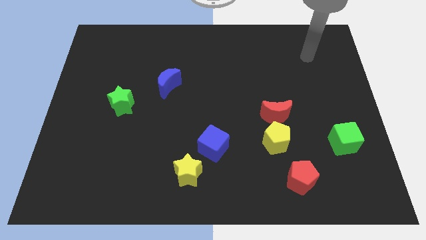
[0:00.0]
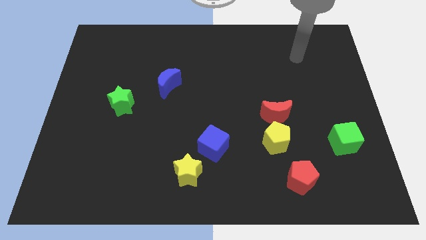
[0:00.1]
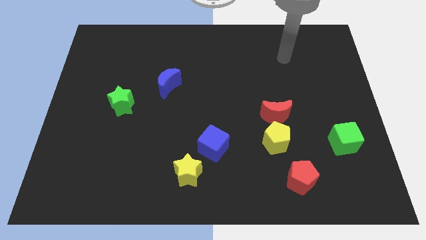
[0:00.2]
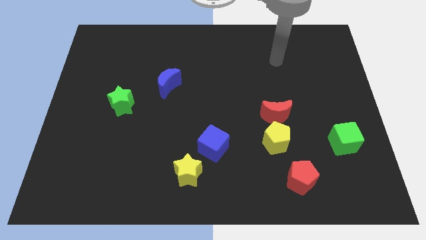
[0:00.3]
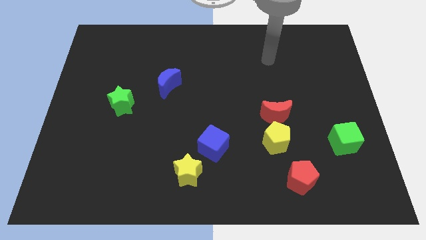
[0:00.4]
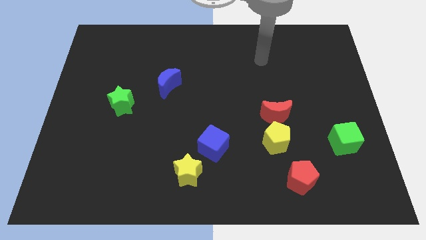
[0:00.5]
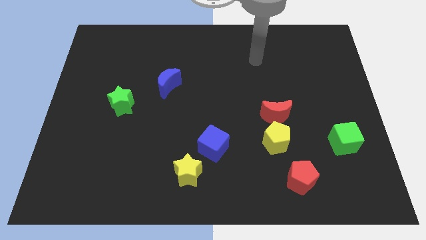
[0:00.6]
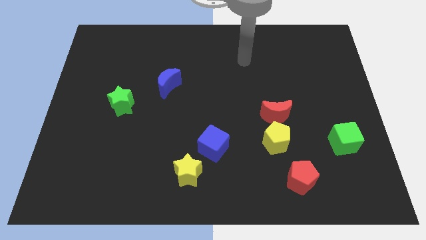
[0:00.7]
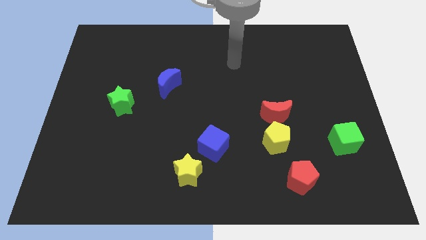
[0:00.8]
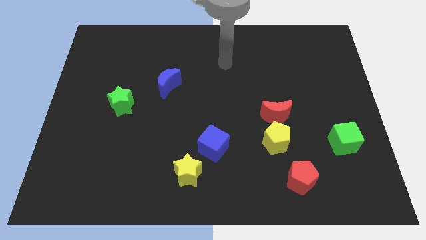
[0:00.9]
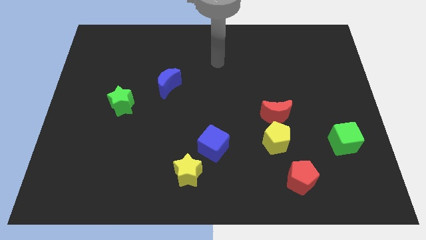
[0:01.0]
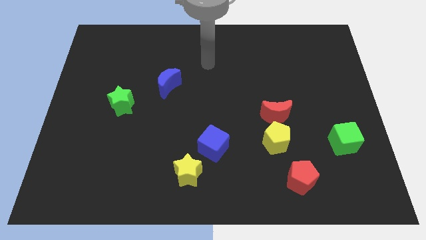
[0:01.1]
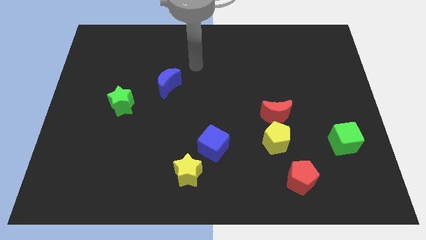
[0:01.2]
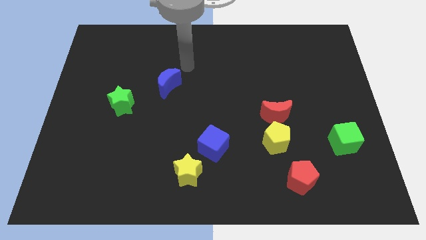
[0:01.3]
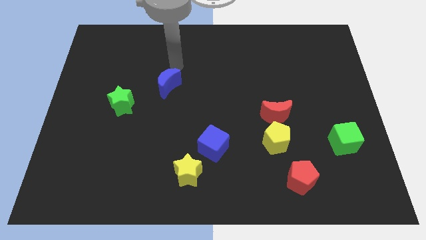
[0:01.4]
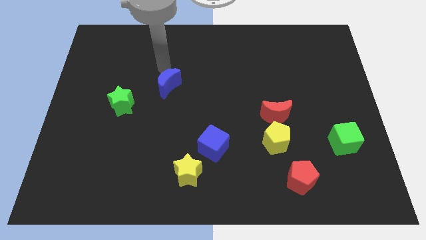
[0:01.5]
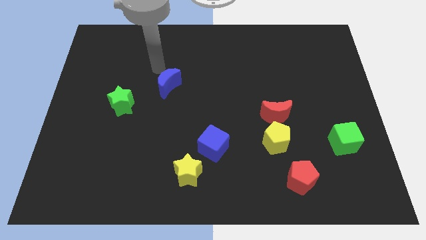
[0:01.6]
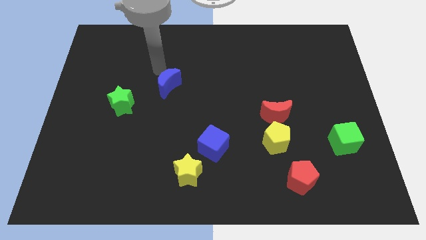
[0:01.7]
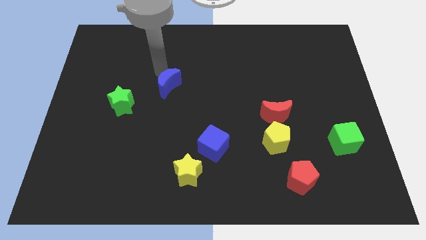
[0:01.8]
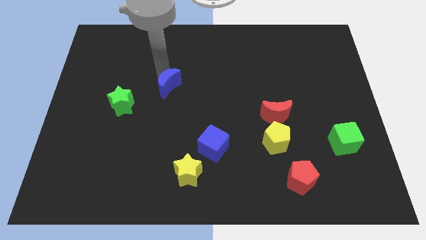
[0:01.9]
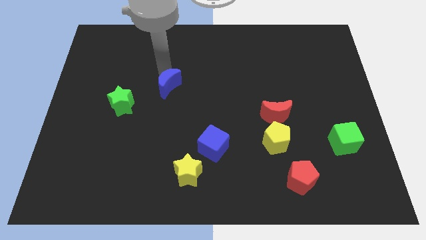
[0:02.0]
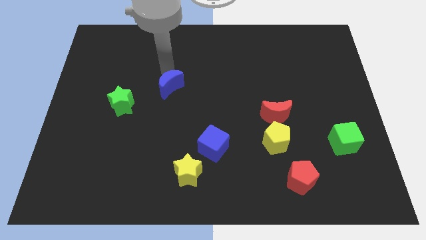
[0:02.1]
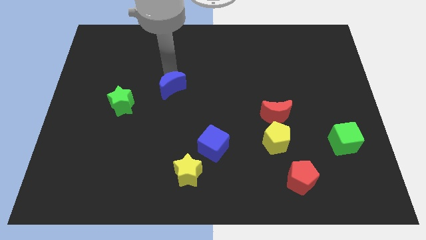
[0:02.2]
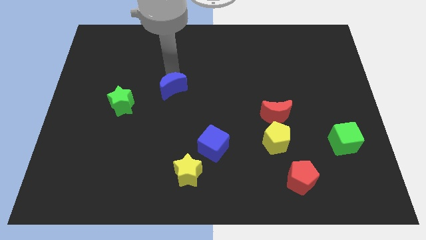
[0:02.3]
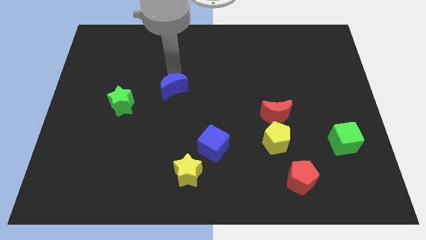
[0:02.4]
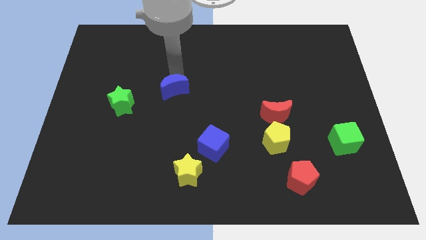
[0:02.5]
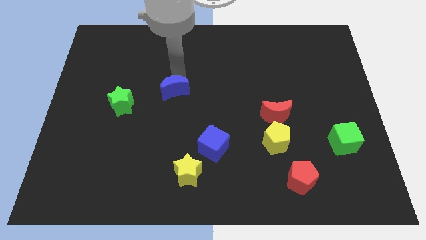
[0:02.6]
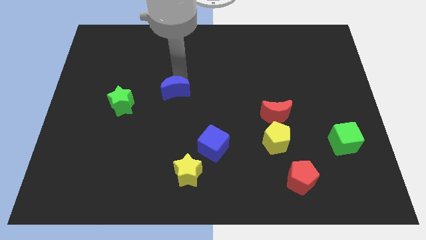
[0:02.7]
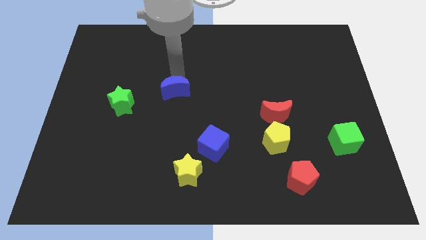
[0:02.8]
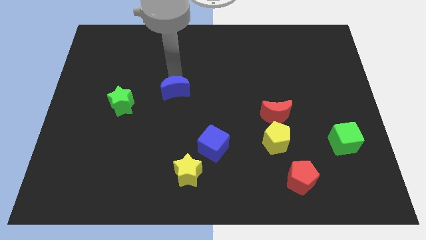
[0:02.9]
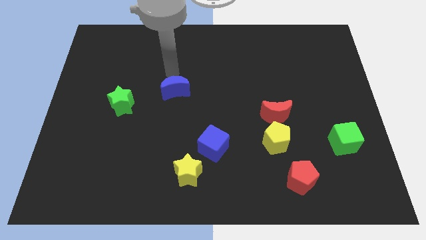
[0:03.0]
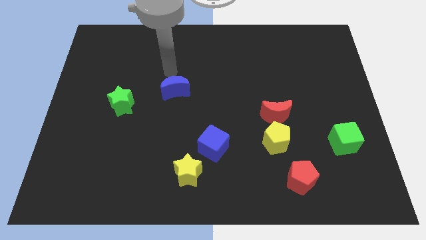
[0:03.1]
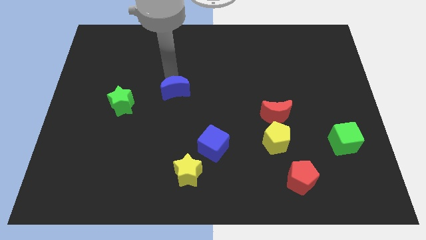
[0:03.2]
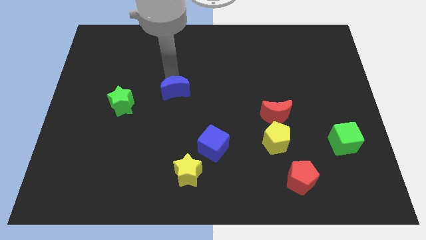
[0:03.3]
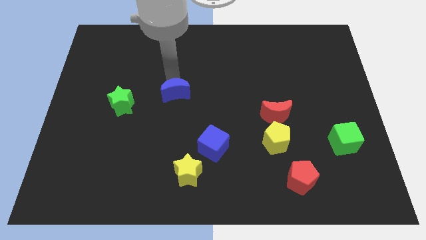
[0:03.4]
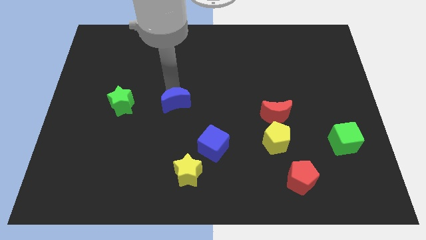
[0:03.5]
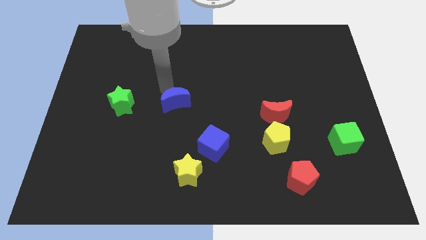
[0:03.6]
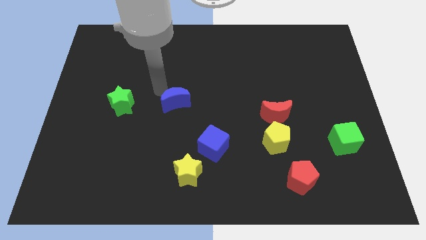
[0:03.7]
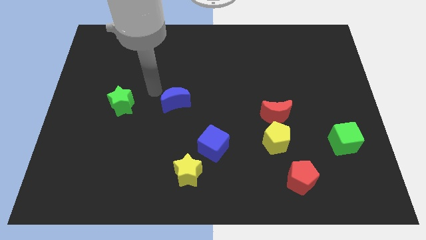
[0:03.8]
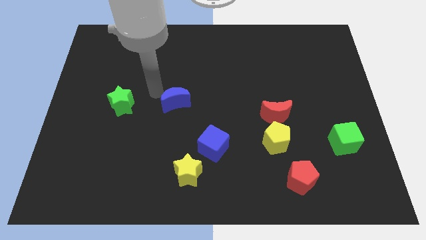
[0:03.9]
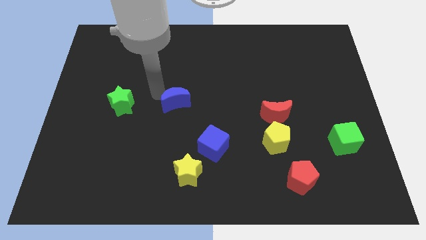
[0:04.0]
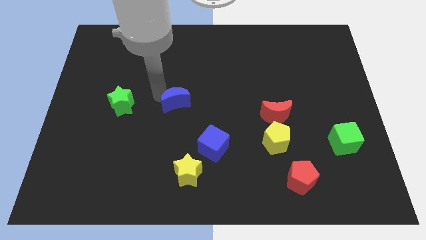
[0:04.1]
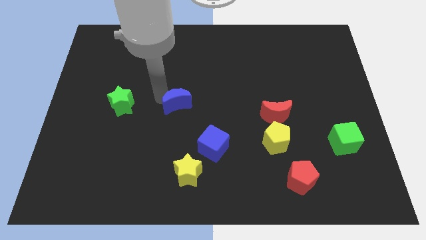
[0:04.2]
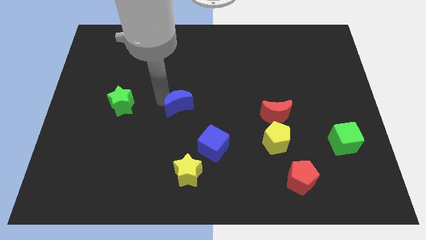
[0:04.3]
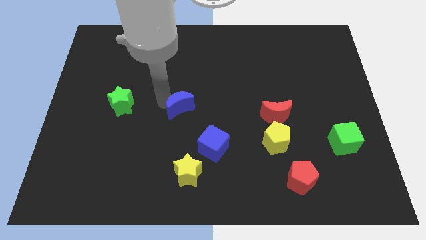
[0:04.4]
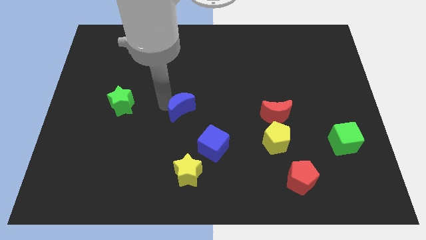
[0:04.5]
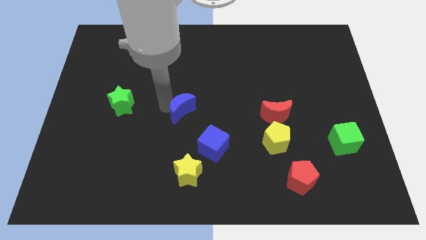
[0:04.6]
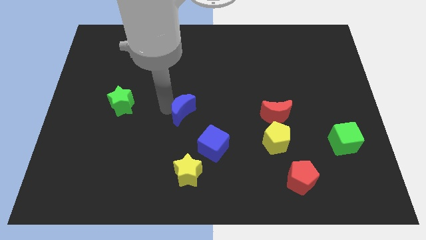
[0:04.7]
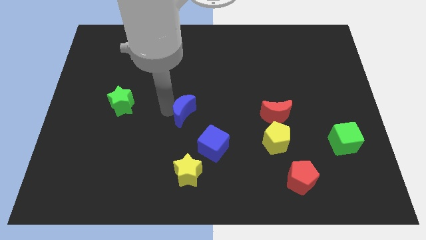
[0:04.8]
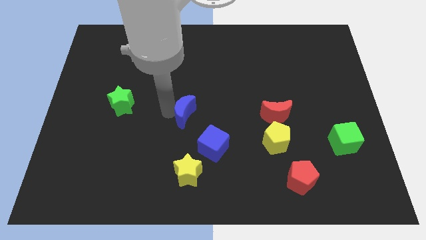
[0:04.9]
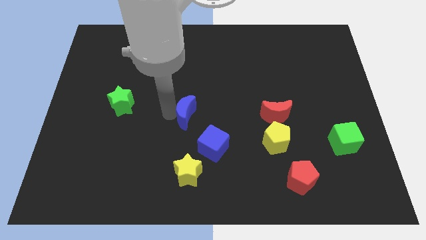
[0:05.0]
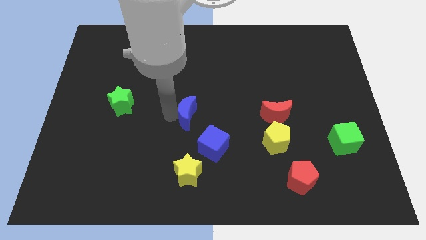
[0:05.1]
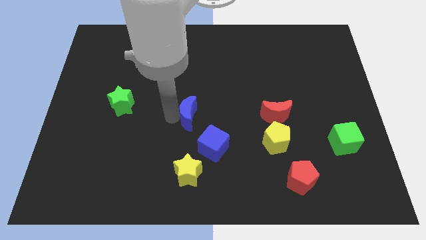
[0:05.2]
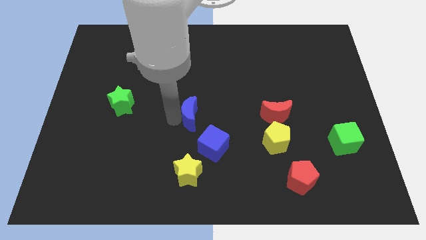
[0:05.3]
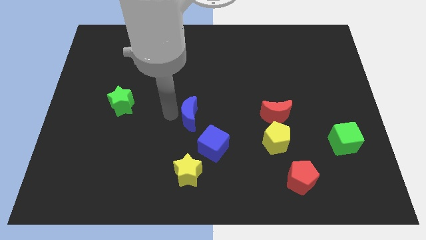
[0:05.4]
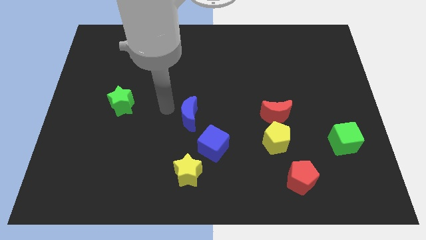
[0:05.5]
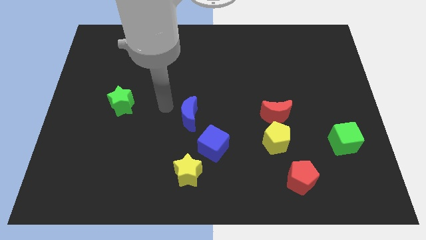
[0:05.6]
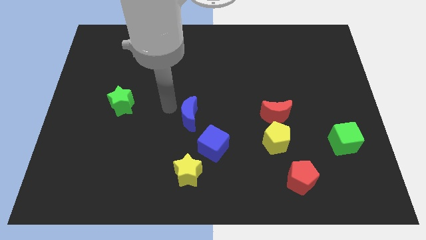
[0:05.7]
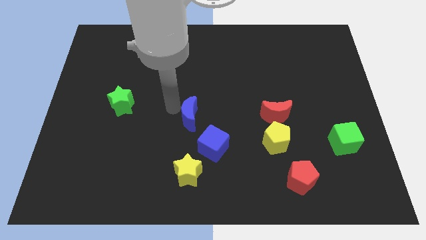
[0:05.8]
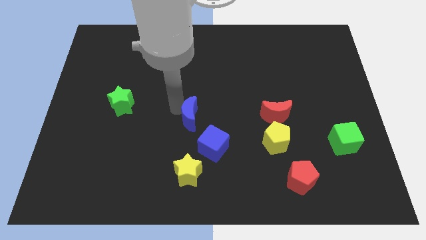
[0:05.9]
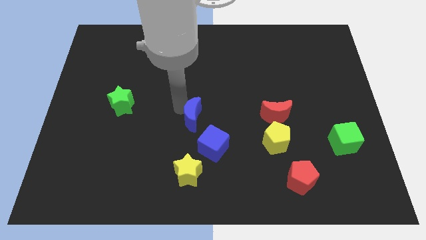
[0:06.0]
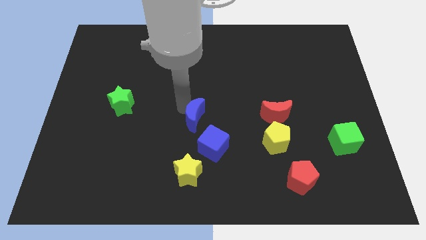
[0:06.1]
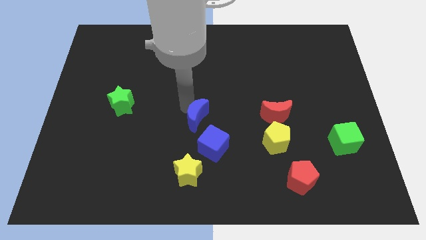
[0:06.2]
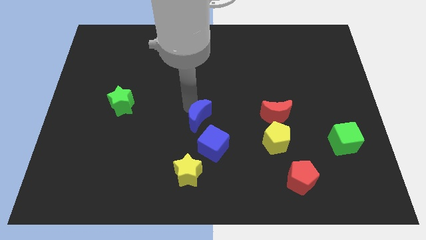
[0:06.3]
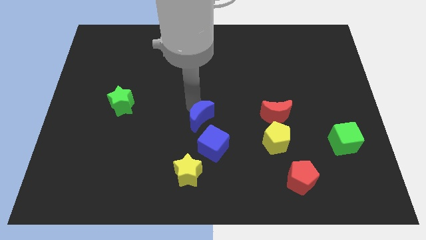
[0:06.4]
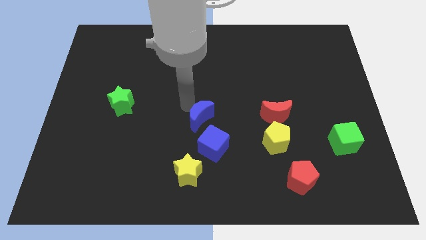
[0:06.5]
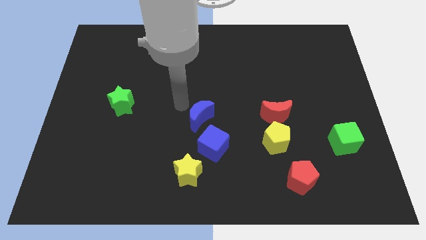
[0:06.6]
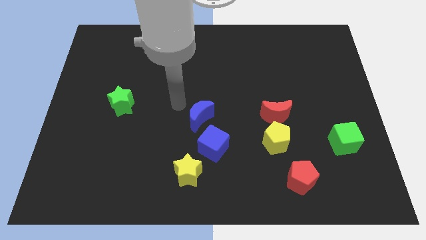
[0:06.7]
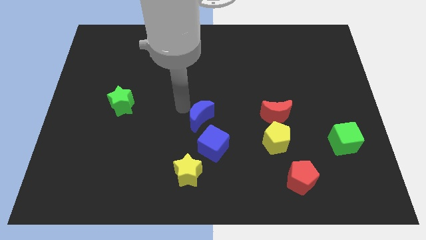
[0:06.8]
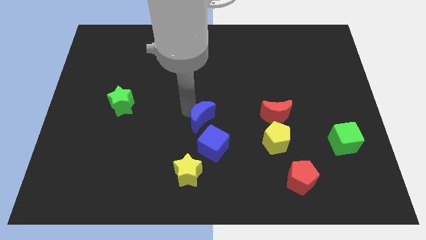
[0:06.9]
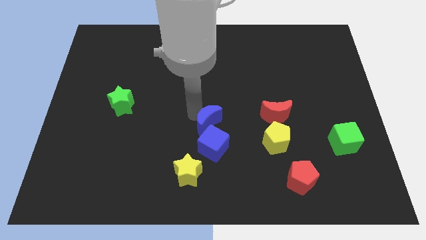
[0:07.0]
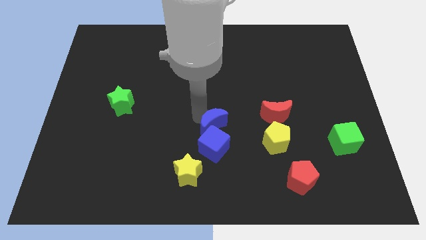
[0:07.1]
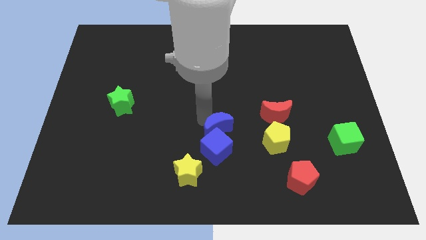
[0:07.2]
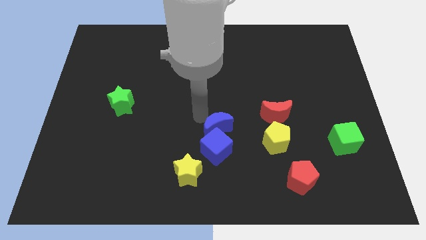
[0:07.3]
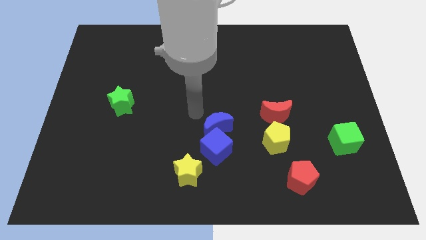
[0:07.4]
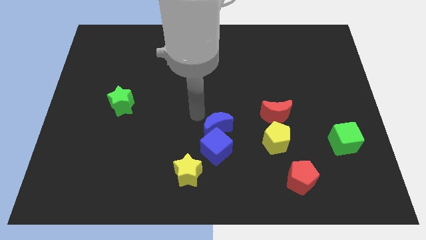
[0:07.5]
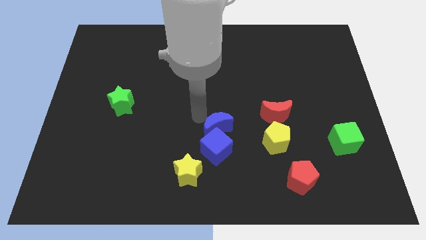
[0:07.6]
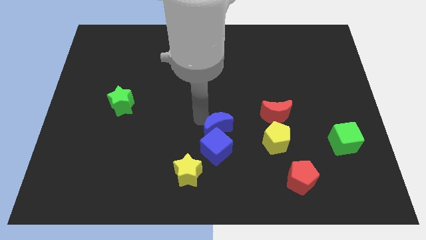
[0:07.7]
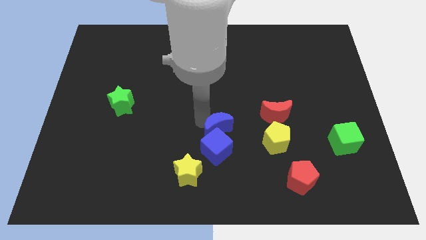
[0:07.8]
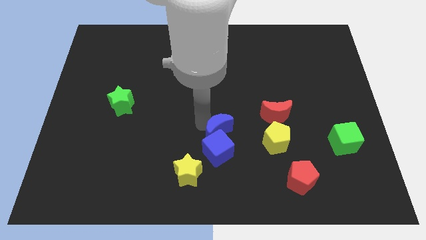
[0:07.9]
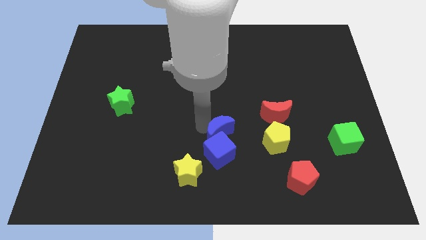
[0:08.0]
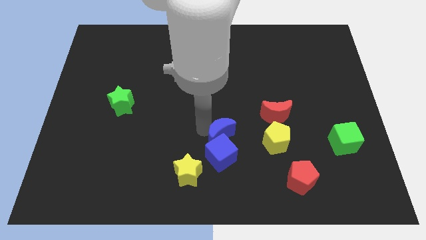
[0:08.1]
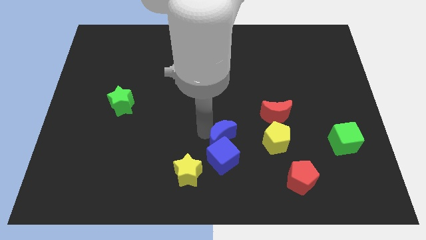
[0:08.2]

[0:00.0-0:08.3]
slide the blue moon downwards and then to the right
